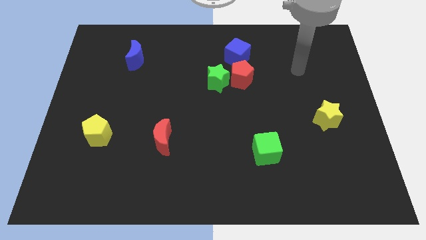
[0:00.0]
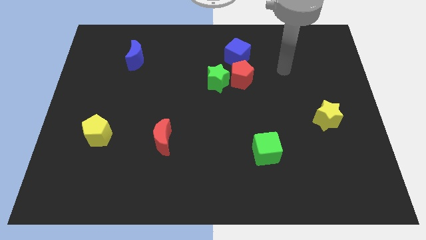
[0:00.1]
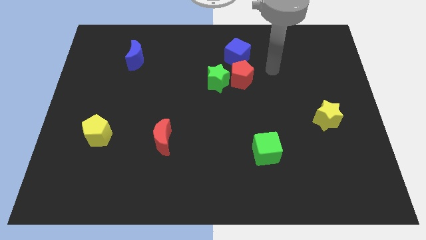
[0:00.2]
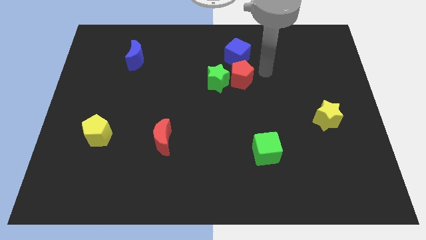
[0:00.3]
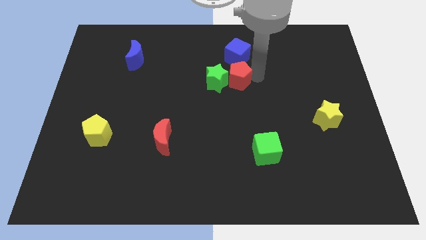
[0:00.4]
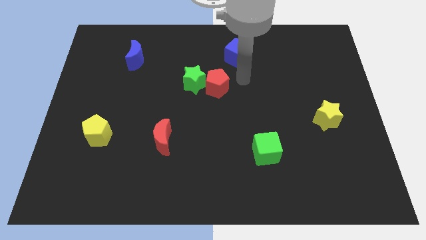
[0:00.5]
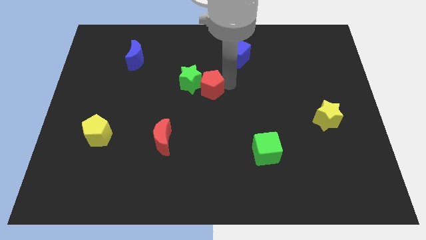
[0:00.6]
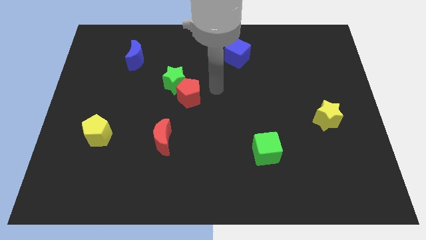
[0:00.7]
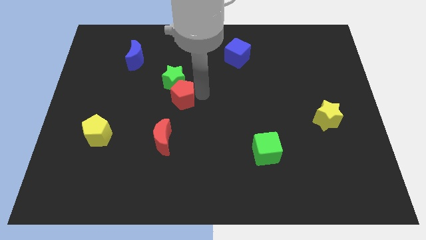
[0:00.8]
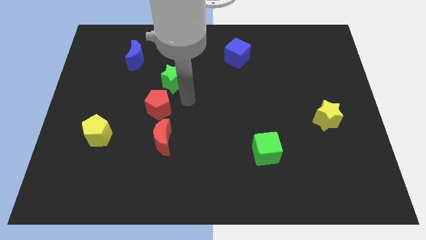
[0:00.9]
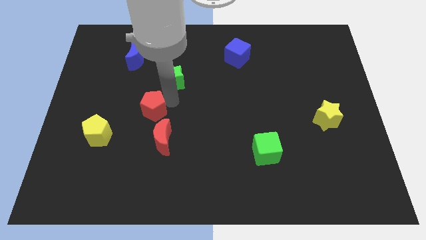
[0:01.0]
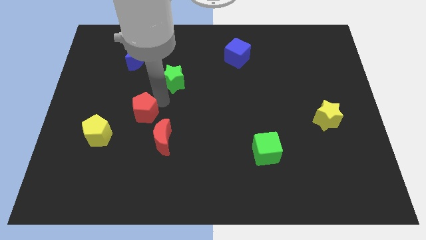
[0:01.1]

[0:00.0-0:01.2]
move the green star away from the red pentagon

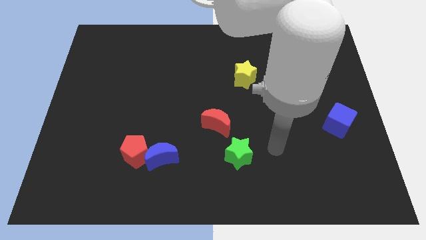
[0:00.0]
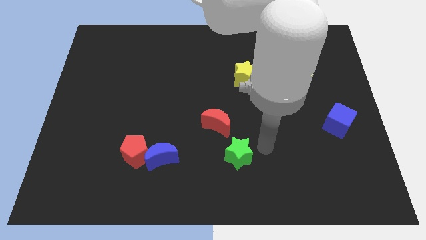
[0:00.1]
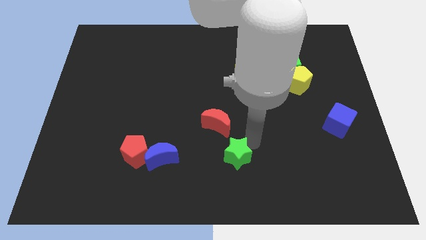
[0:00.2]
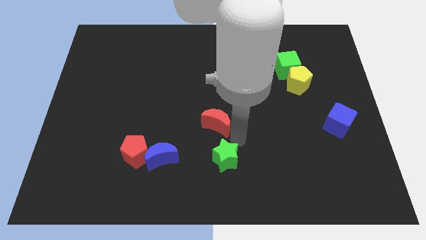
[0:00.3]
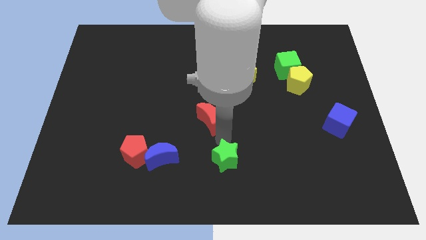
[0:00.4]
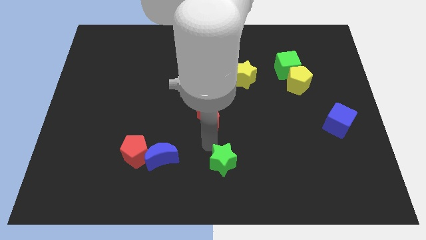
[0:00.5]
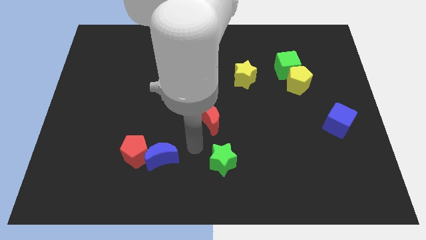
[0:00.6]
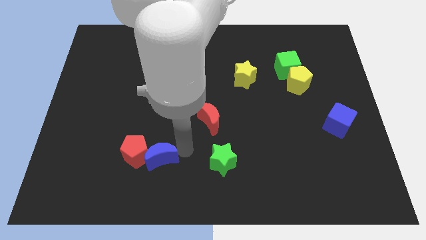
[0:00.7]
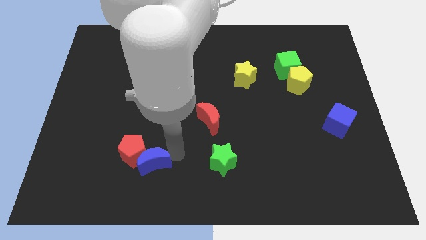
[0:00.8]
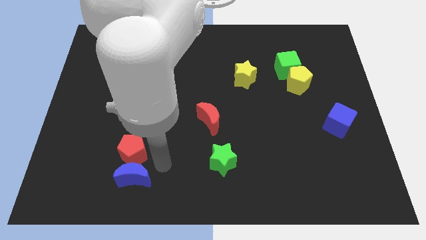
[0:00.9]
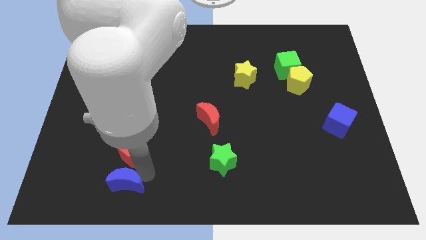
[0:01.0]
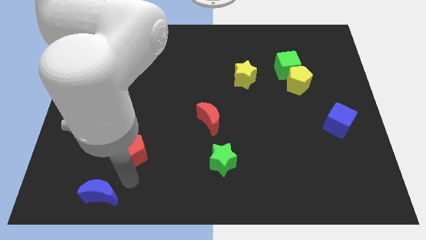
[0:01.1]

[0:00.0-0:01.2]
move the red pentagon away from the blue moon

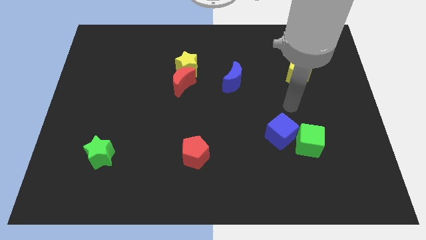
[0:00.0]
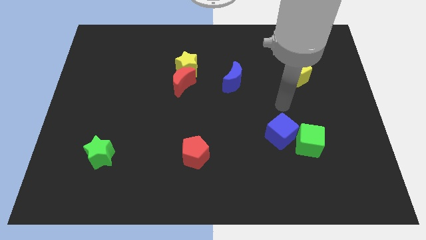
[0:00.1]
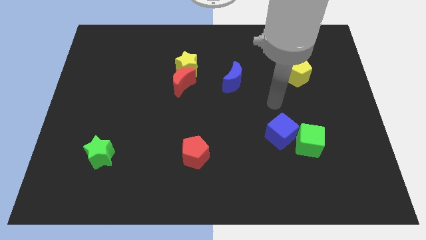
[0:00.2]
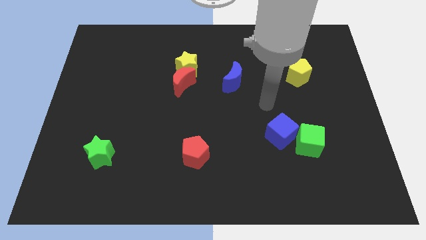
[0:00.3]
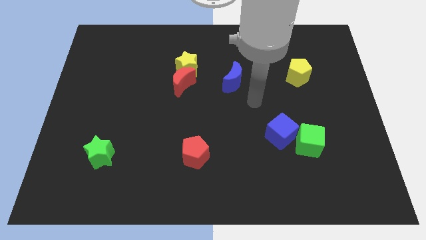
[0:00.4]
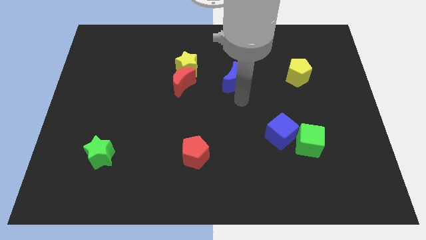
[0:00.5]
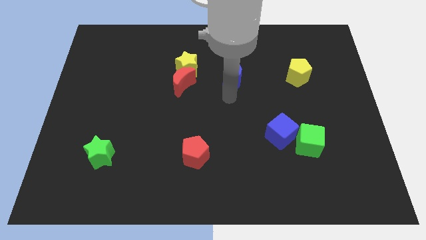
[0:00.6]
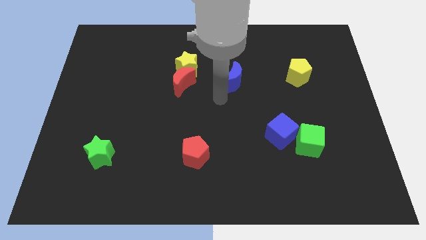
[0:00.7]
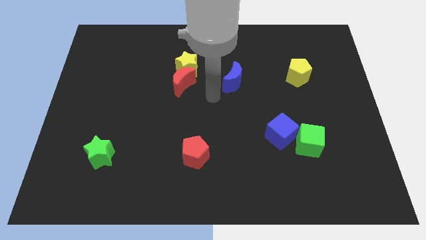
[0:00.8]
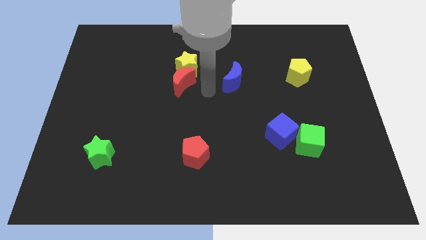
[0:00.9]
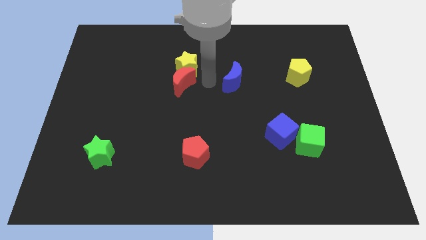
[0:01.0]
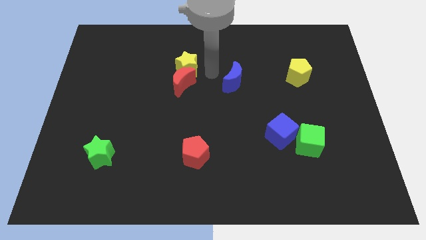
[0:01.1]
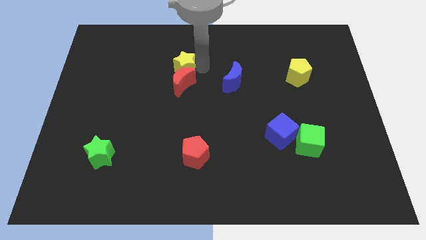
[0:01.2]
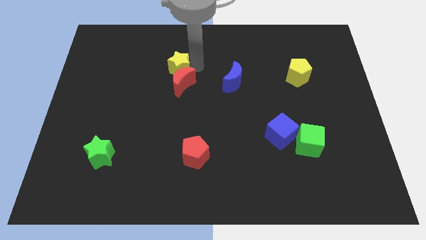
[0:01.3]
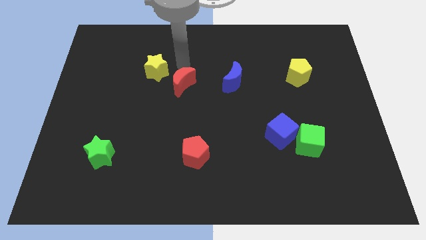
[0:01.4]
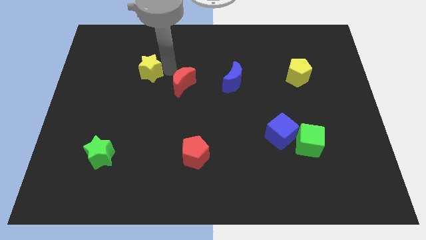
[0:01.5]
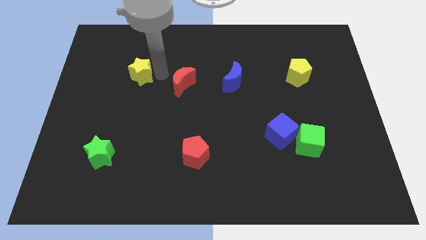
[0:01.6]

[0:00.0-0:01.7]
move the red moon away from the yellow star

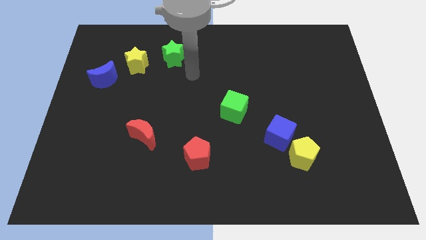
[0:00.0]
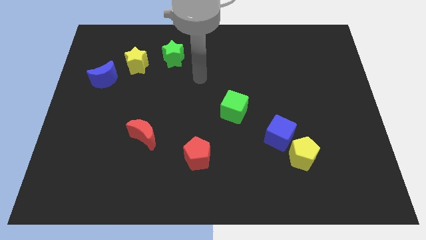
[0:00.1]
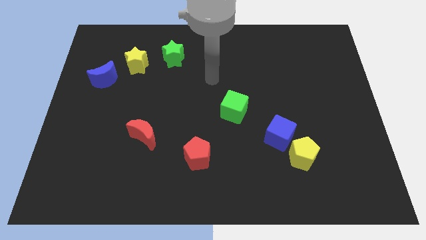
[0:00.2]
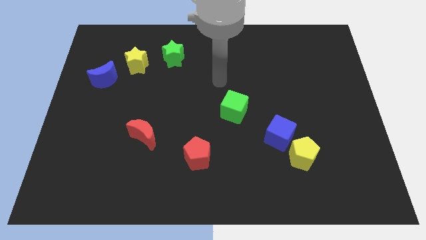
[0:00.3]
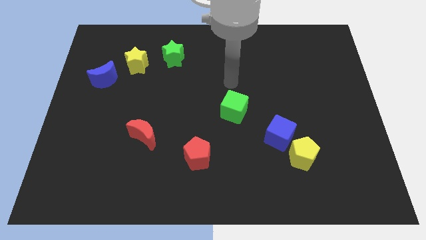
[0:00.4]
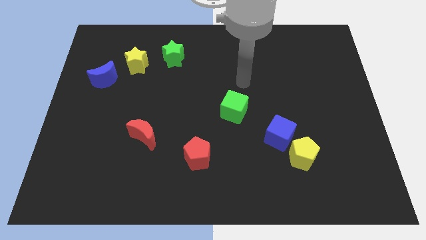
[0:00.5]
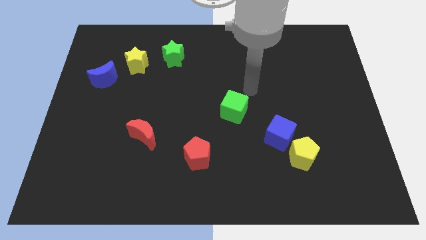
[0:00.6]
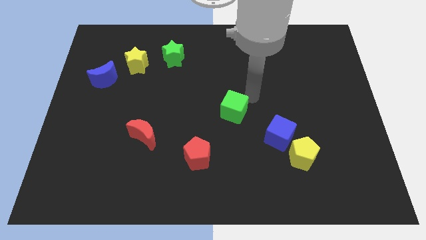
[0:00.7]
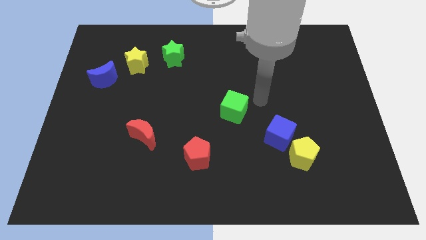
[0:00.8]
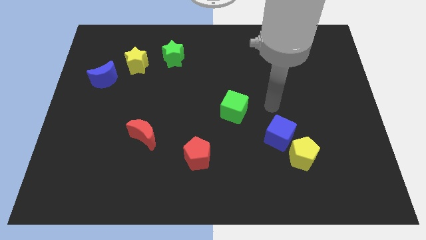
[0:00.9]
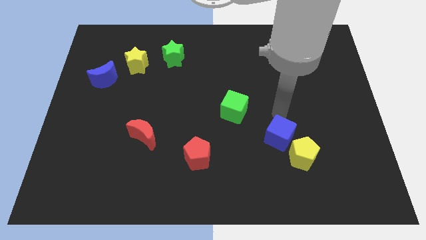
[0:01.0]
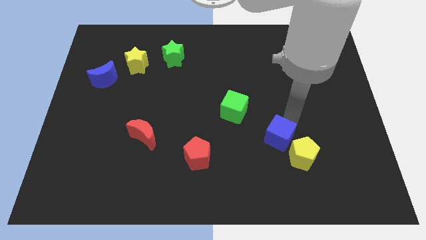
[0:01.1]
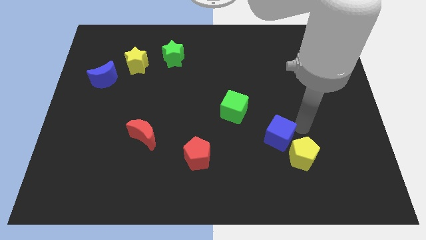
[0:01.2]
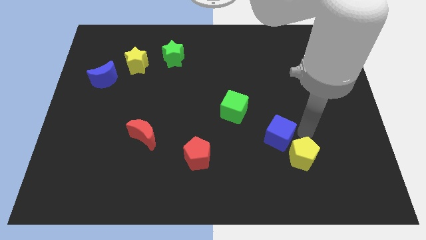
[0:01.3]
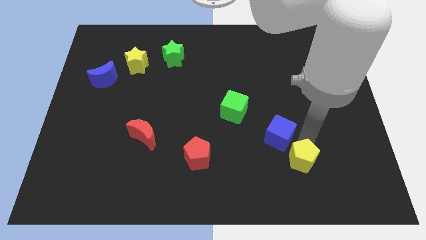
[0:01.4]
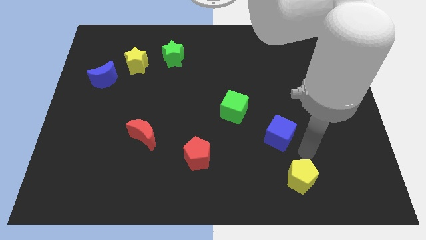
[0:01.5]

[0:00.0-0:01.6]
pull the blue cube apart from the yellow pentagon

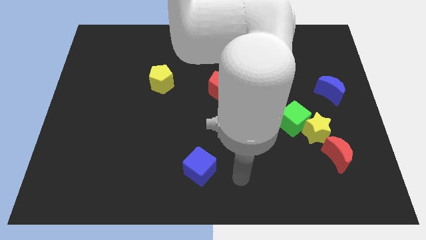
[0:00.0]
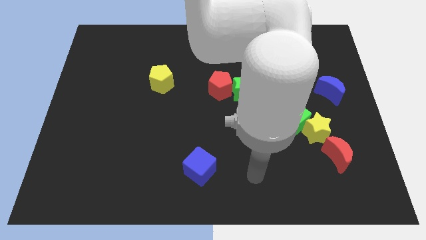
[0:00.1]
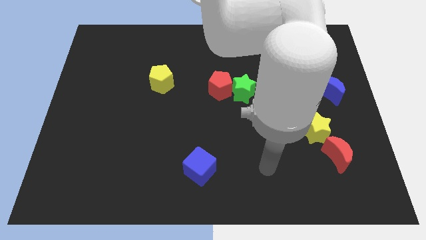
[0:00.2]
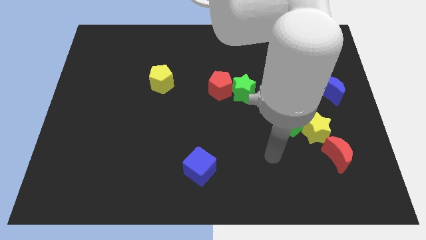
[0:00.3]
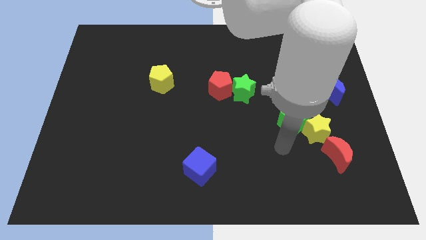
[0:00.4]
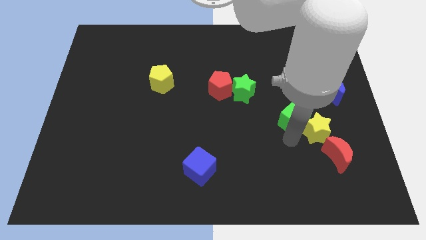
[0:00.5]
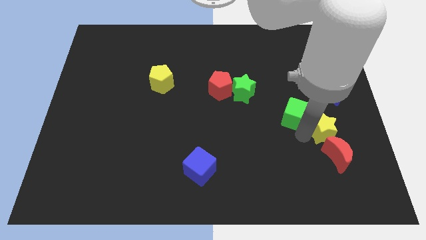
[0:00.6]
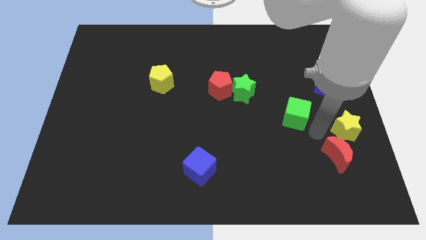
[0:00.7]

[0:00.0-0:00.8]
move the green cube away from the yellow star

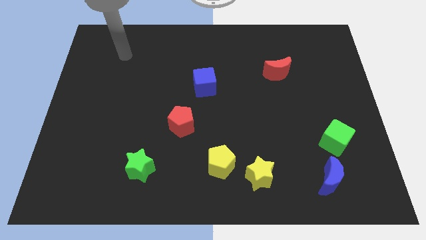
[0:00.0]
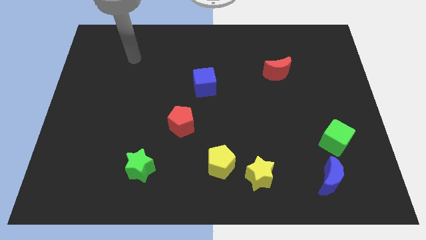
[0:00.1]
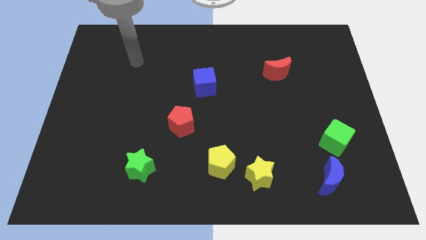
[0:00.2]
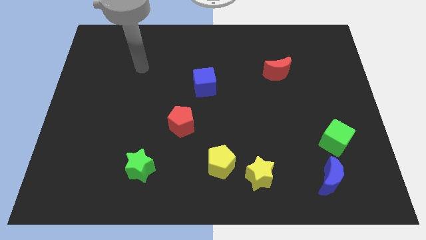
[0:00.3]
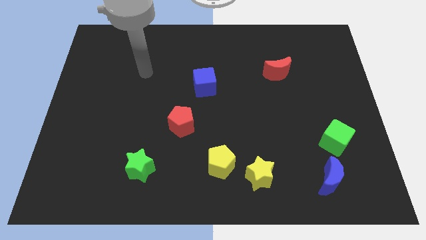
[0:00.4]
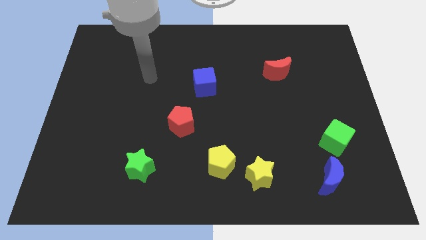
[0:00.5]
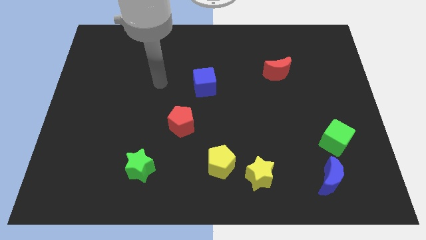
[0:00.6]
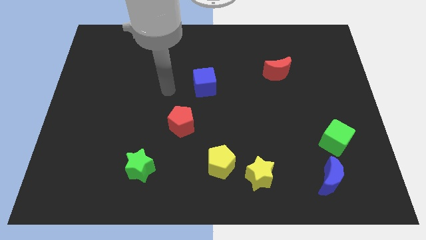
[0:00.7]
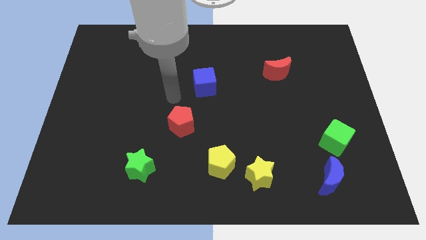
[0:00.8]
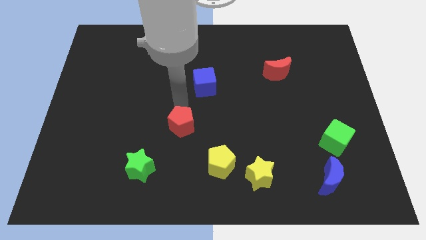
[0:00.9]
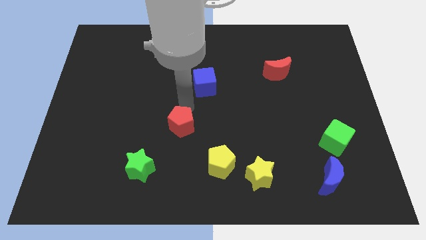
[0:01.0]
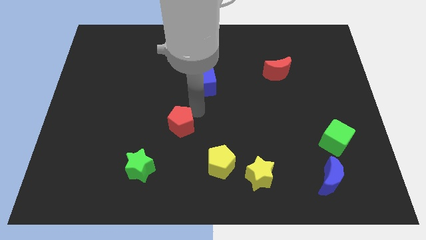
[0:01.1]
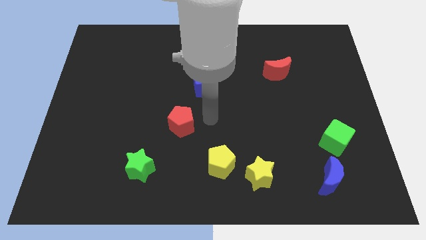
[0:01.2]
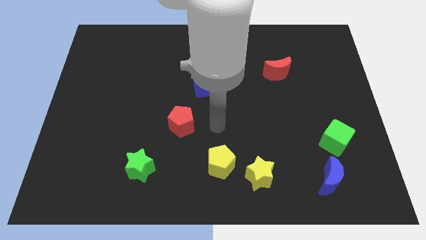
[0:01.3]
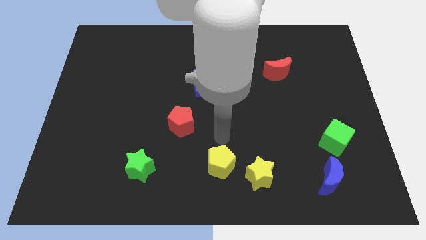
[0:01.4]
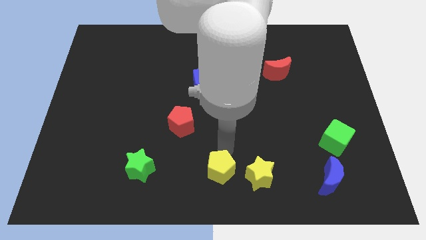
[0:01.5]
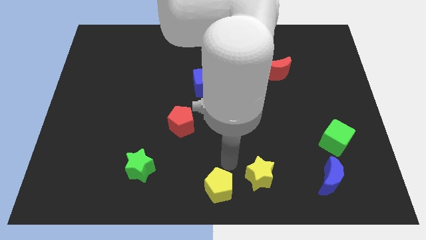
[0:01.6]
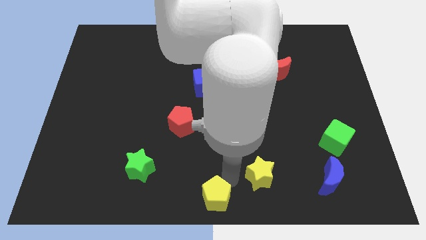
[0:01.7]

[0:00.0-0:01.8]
separate the yellow star from the yellow pentagon

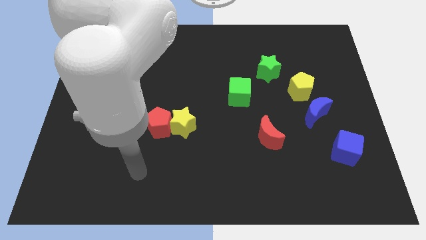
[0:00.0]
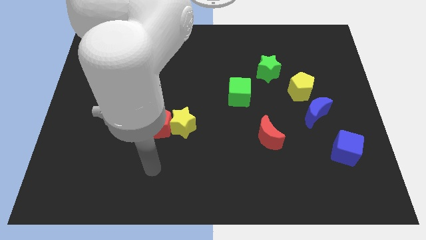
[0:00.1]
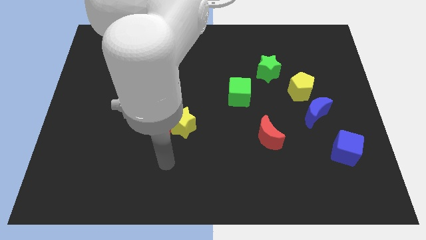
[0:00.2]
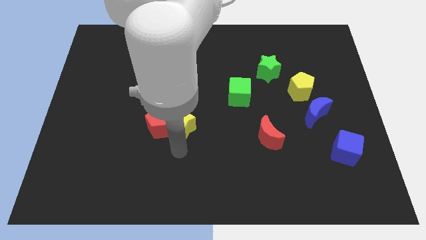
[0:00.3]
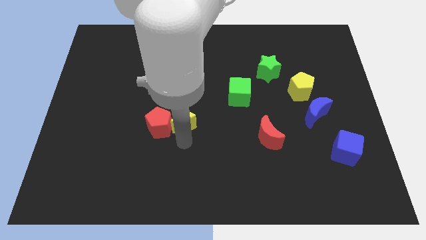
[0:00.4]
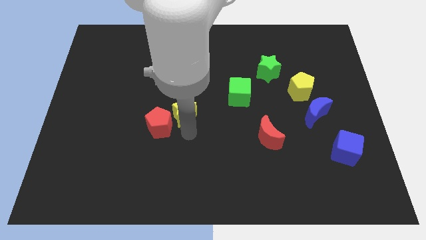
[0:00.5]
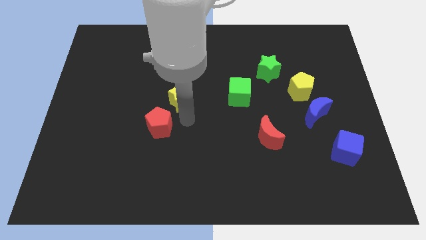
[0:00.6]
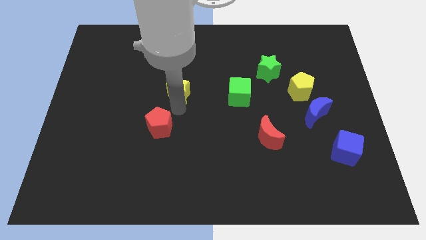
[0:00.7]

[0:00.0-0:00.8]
pull the red pentagon apart from the yellow star
